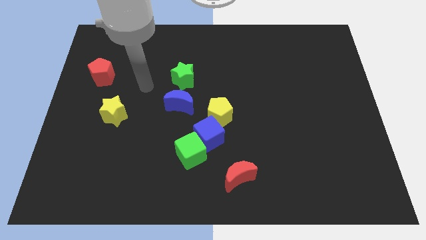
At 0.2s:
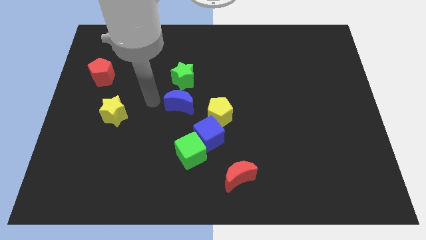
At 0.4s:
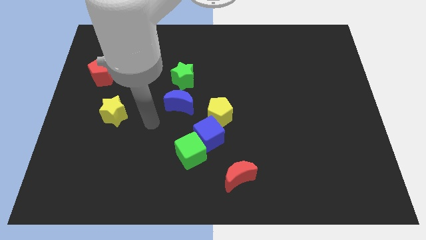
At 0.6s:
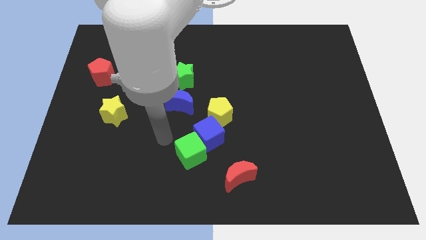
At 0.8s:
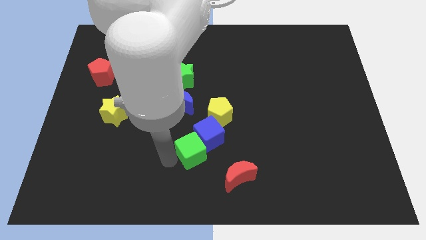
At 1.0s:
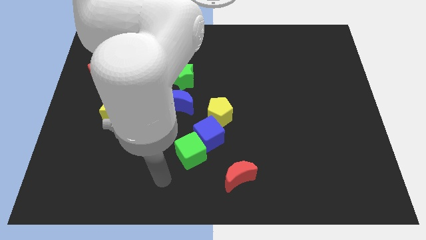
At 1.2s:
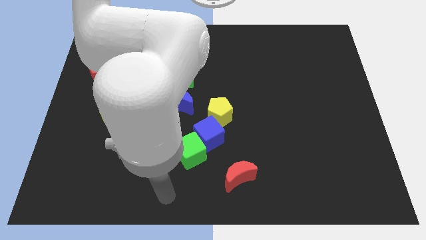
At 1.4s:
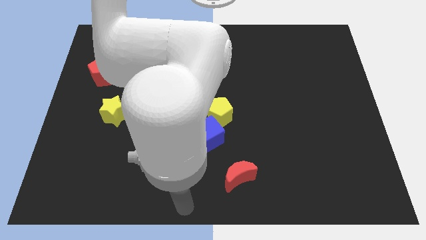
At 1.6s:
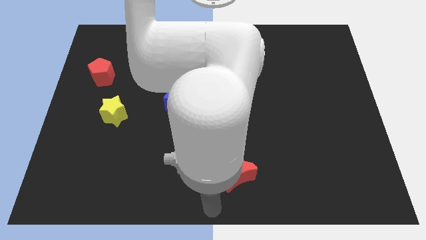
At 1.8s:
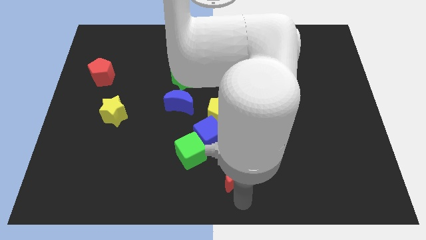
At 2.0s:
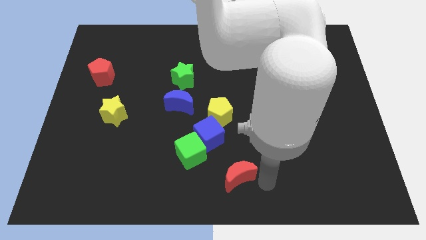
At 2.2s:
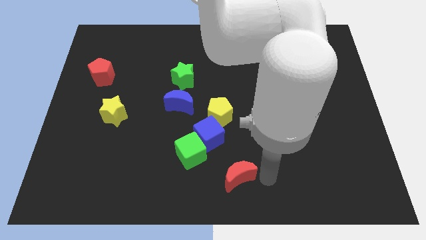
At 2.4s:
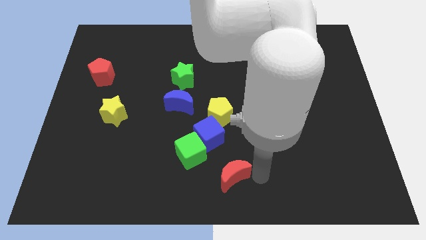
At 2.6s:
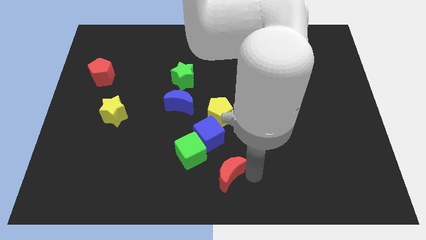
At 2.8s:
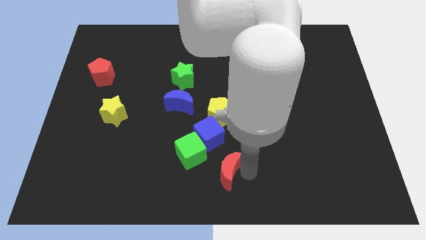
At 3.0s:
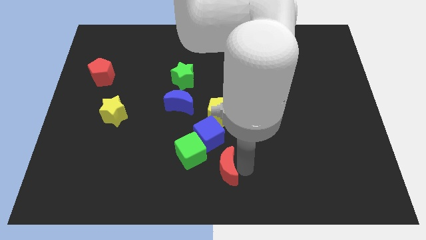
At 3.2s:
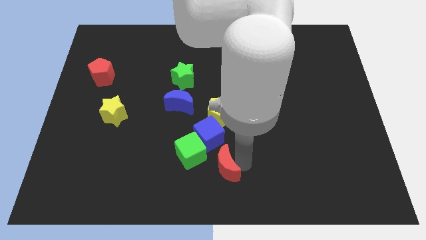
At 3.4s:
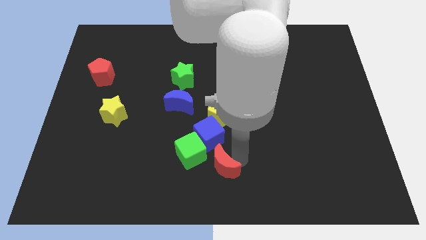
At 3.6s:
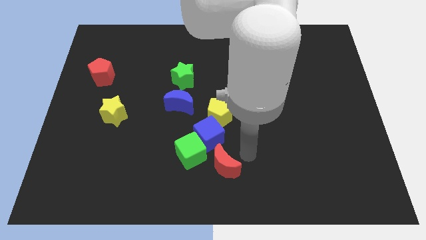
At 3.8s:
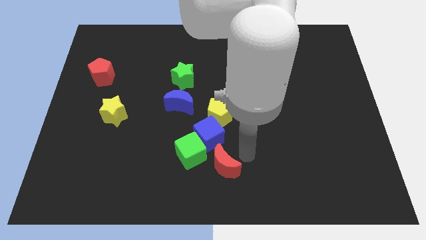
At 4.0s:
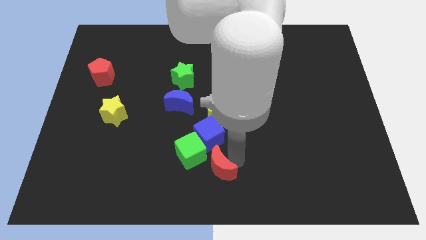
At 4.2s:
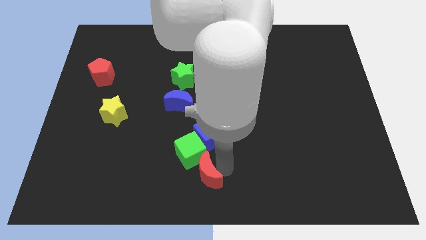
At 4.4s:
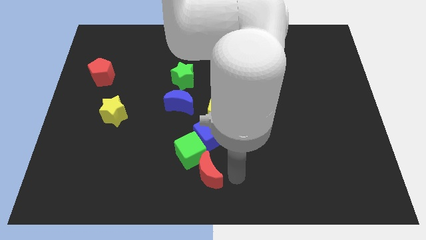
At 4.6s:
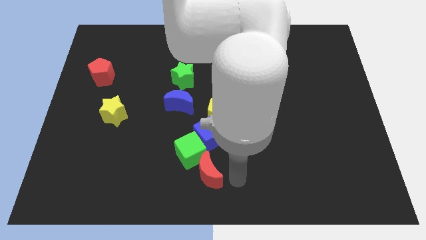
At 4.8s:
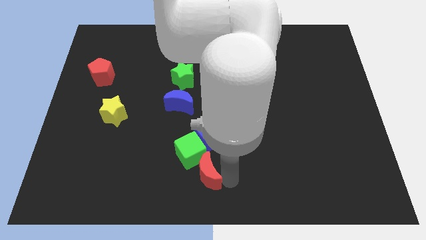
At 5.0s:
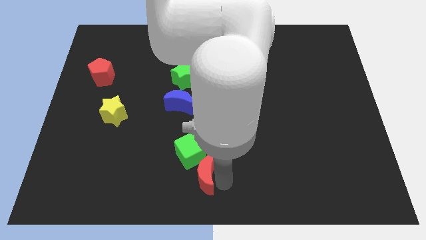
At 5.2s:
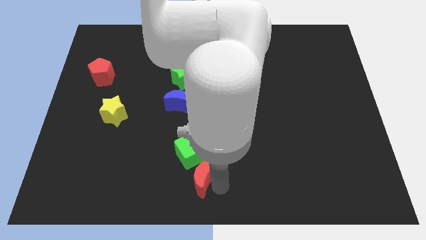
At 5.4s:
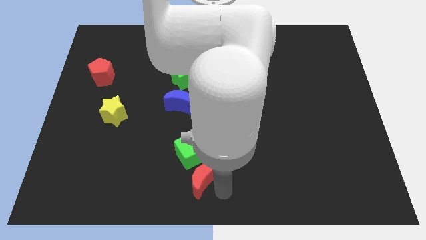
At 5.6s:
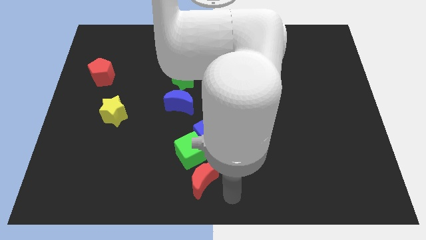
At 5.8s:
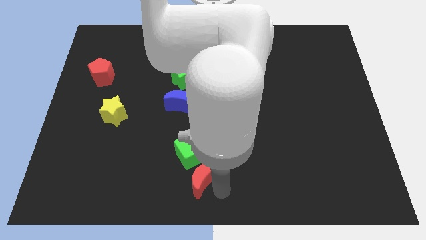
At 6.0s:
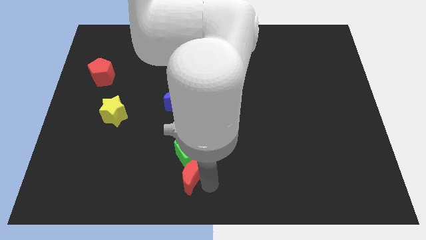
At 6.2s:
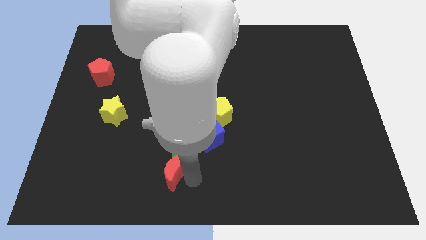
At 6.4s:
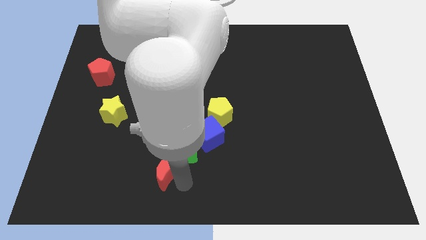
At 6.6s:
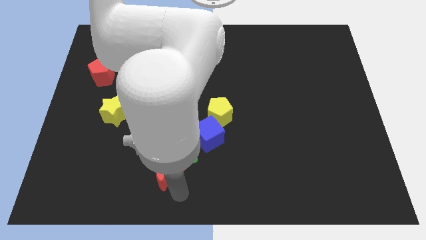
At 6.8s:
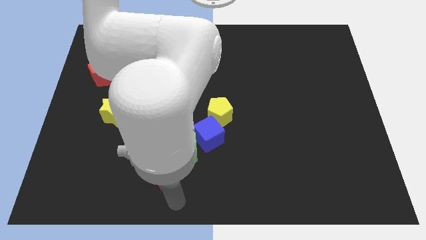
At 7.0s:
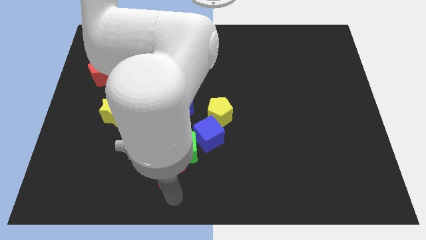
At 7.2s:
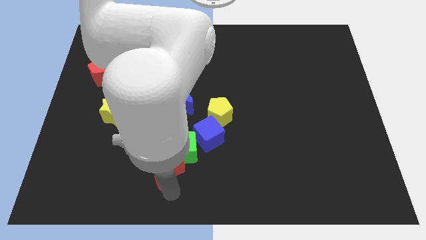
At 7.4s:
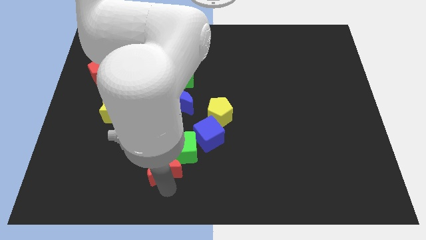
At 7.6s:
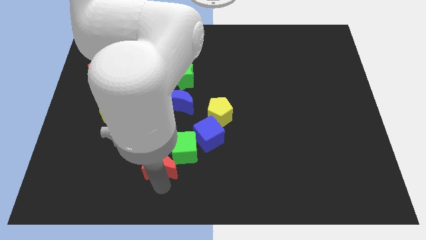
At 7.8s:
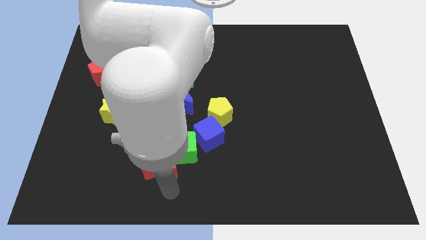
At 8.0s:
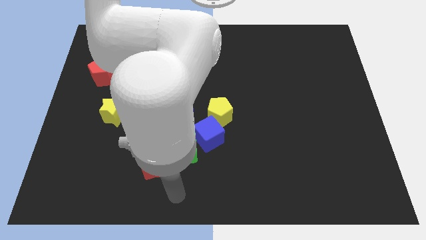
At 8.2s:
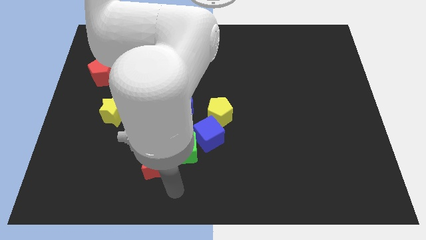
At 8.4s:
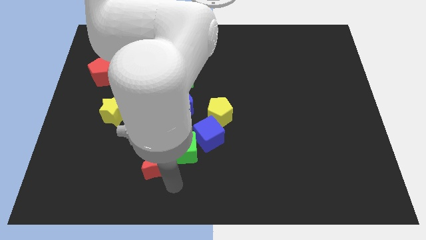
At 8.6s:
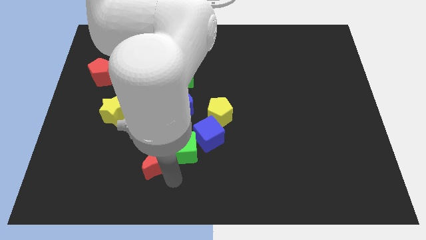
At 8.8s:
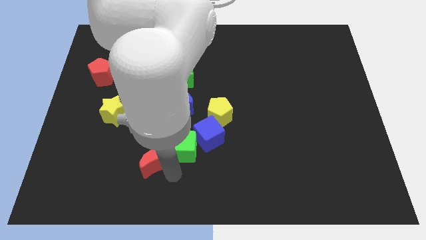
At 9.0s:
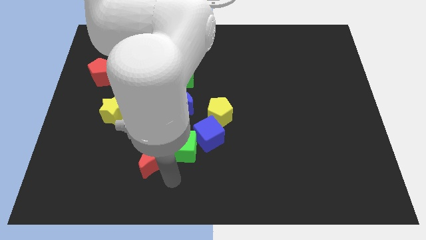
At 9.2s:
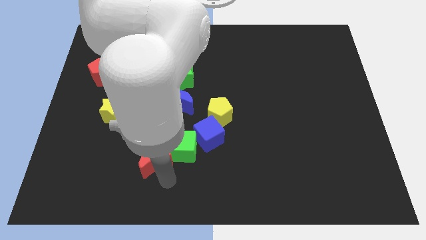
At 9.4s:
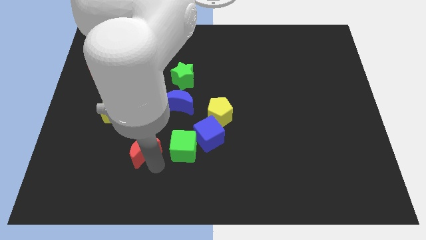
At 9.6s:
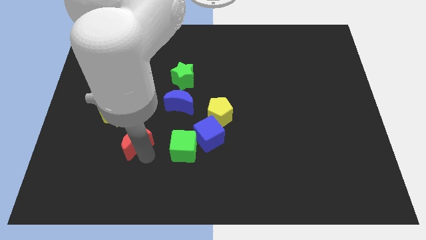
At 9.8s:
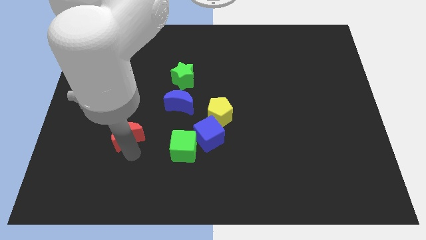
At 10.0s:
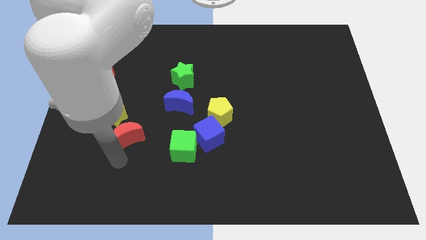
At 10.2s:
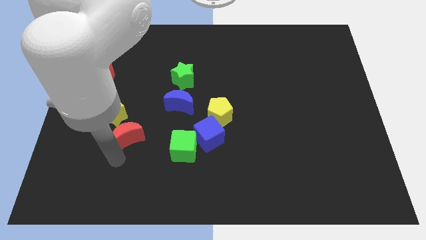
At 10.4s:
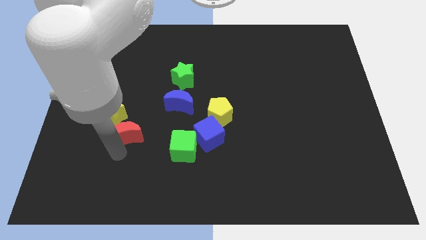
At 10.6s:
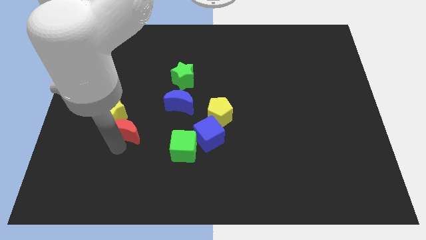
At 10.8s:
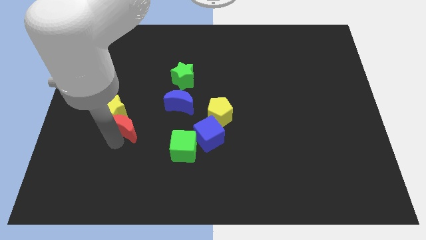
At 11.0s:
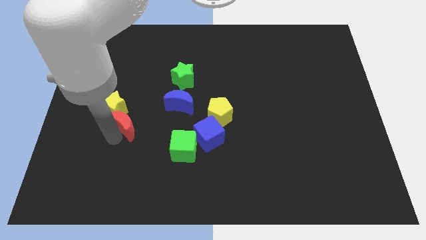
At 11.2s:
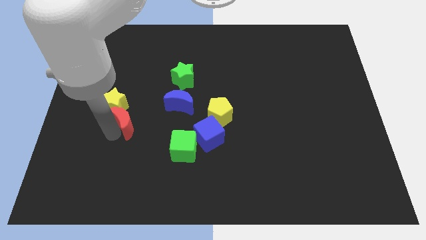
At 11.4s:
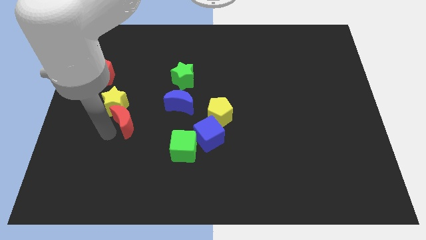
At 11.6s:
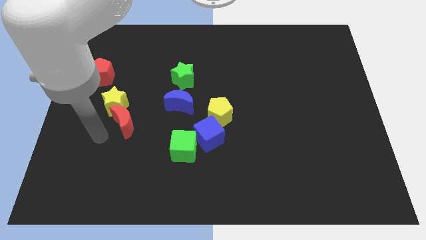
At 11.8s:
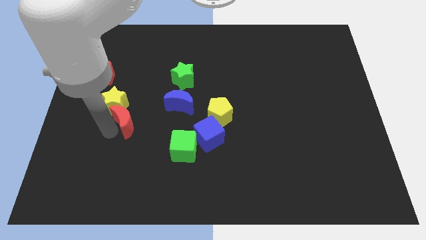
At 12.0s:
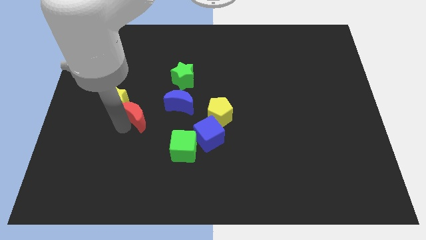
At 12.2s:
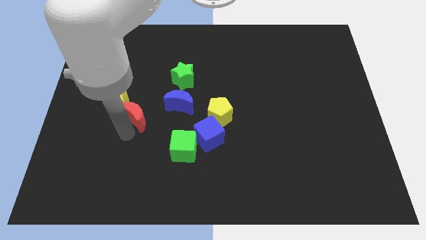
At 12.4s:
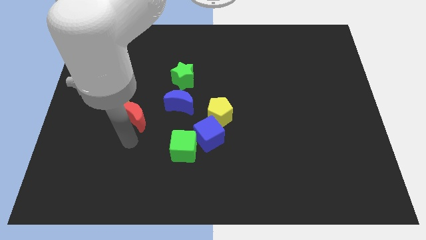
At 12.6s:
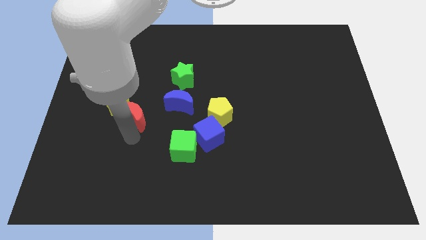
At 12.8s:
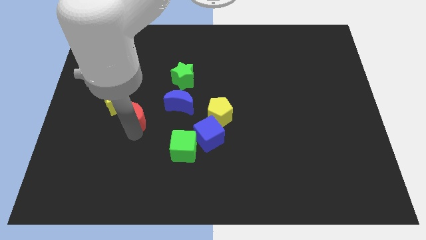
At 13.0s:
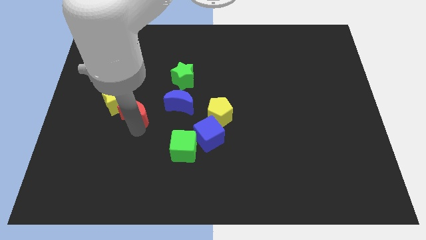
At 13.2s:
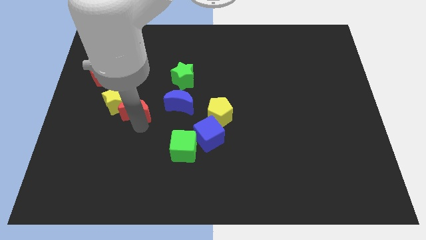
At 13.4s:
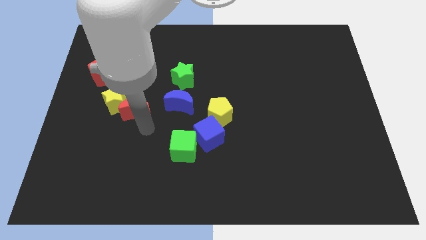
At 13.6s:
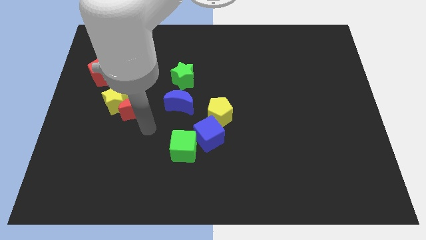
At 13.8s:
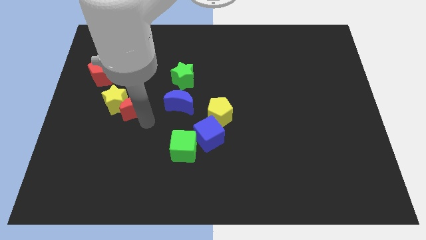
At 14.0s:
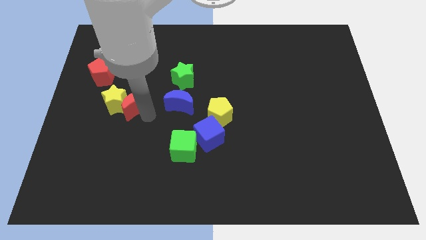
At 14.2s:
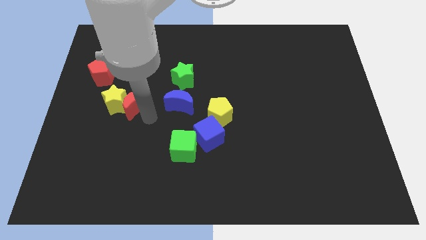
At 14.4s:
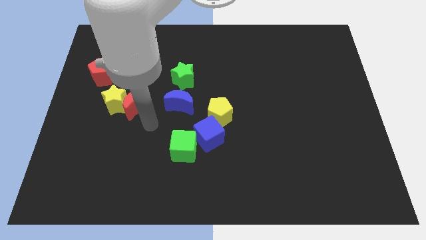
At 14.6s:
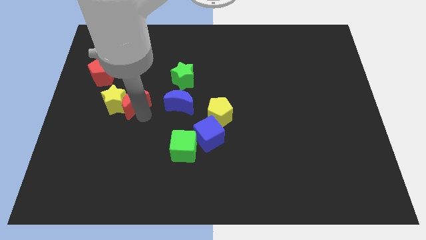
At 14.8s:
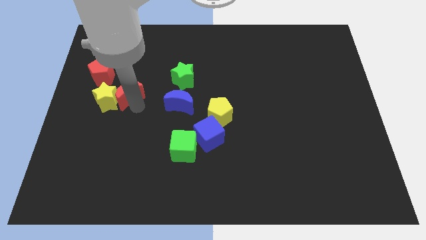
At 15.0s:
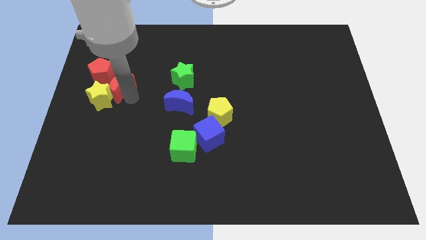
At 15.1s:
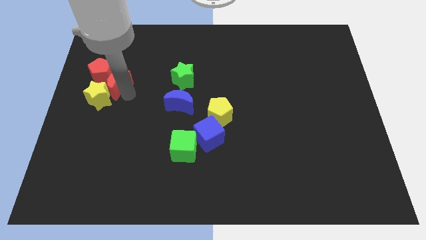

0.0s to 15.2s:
push the red moon to the red pentagon
